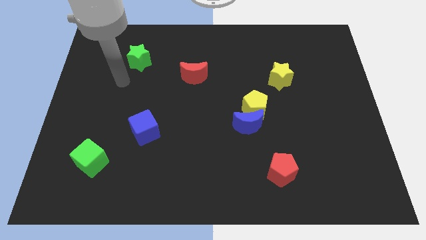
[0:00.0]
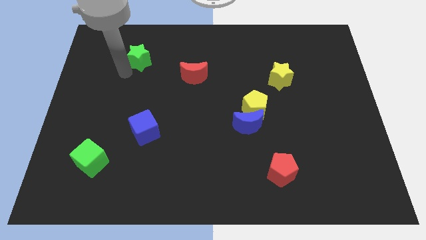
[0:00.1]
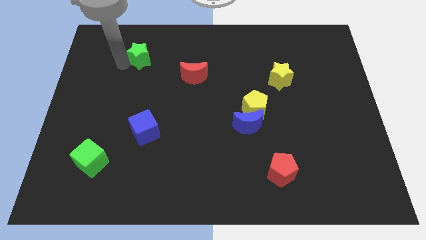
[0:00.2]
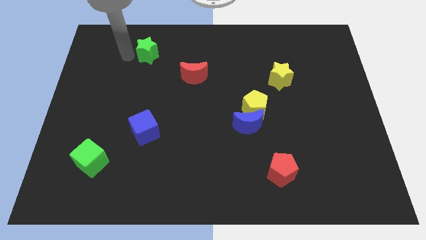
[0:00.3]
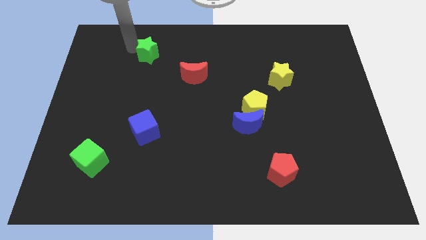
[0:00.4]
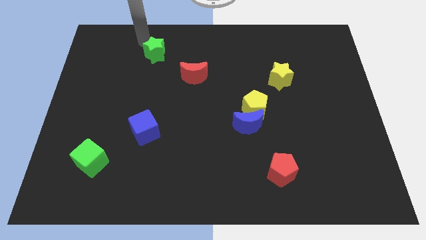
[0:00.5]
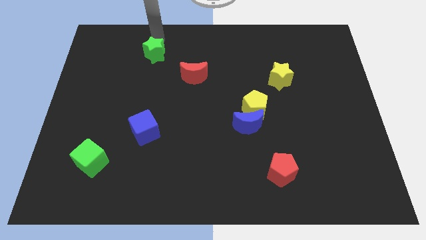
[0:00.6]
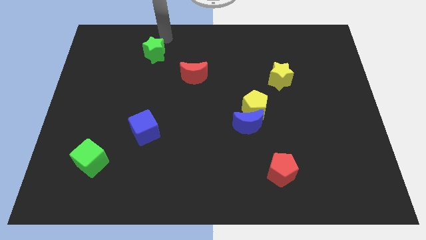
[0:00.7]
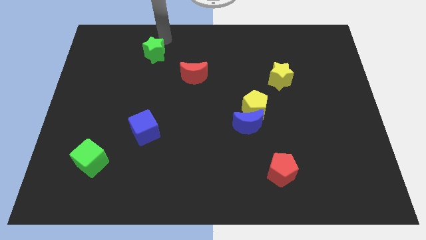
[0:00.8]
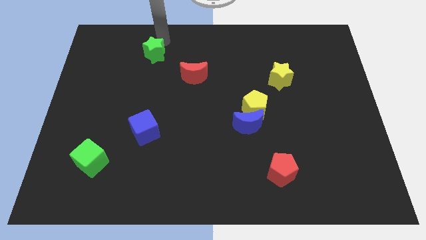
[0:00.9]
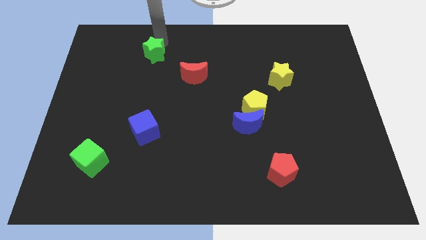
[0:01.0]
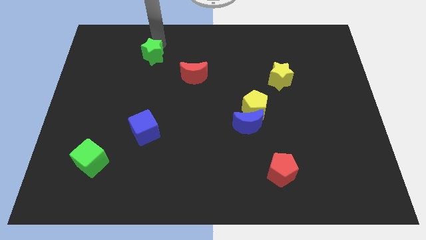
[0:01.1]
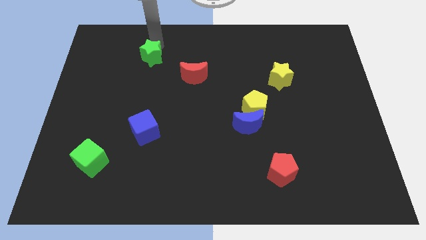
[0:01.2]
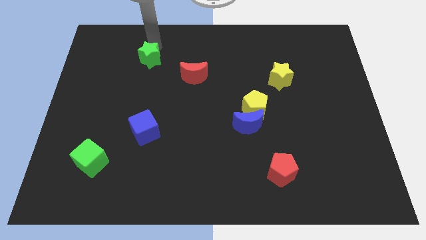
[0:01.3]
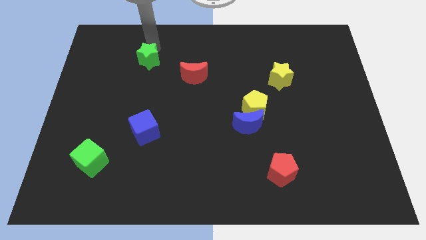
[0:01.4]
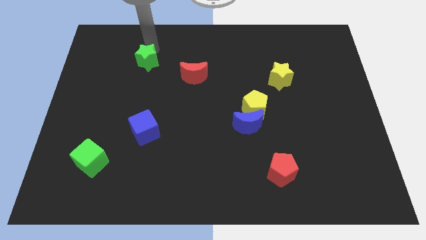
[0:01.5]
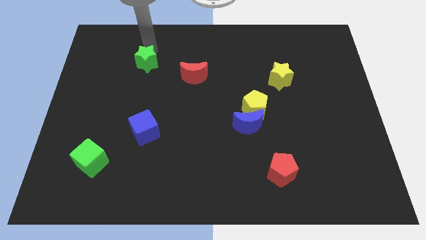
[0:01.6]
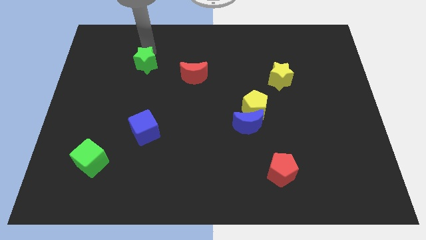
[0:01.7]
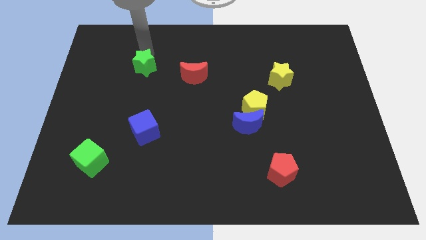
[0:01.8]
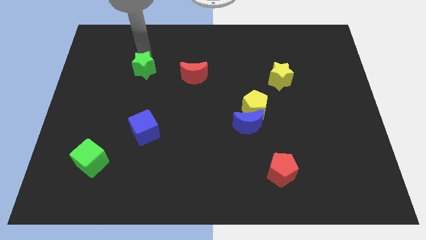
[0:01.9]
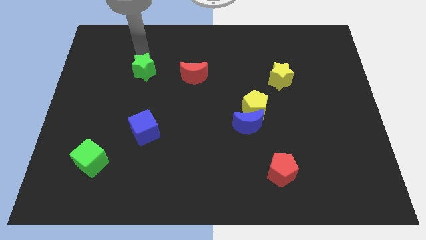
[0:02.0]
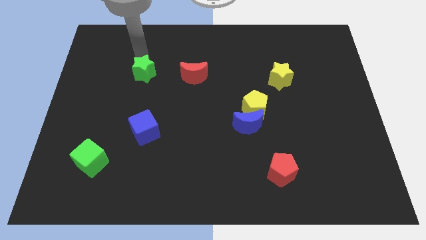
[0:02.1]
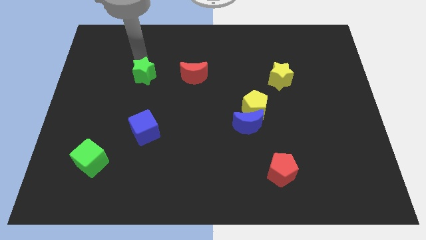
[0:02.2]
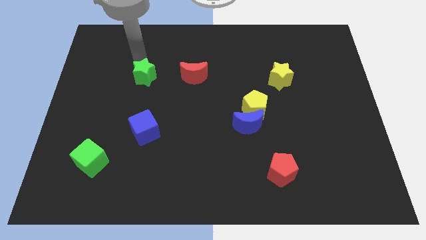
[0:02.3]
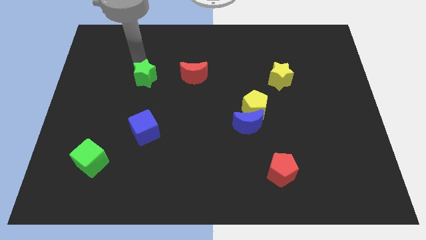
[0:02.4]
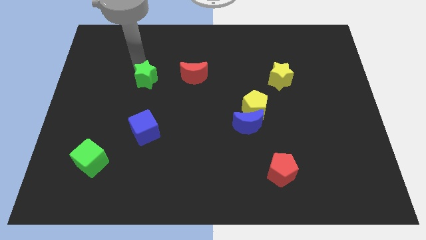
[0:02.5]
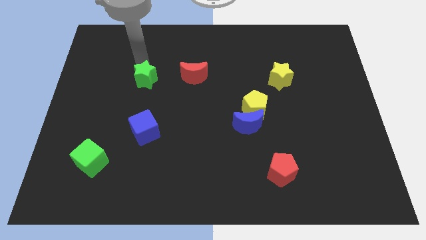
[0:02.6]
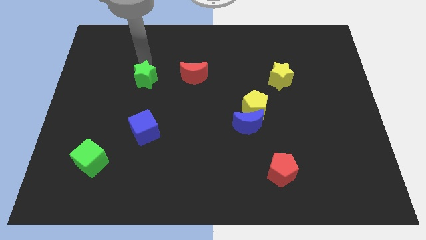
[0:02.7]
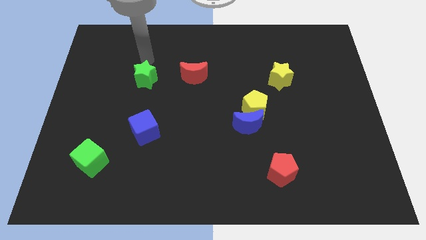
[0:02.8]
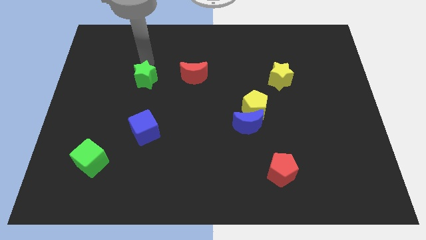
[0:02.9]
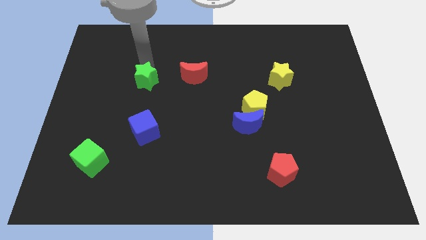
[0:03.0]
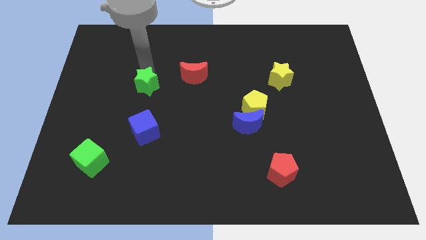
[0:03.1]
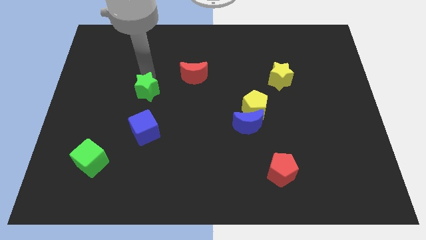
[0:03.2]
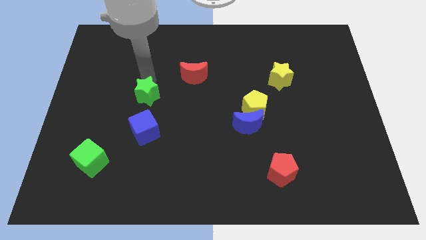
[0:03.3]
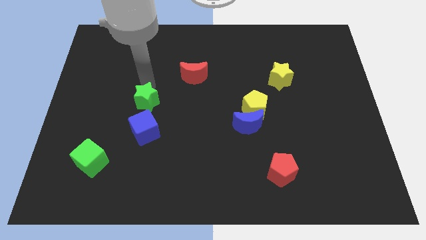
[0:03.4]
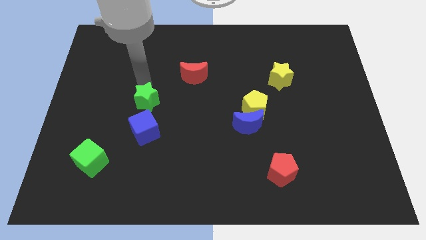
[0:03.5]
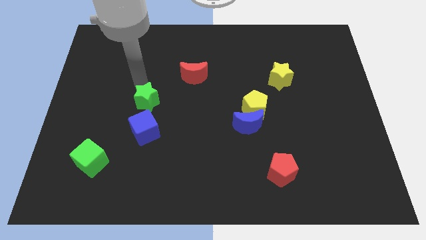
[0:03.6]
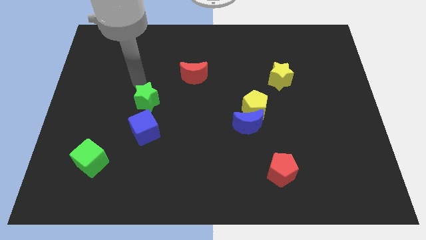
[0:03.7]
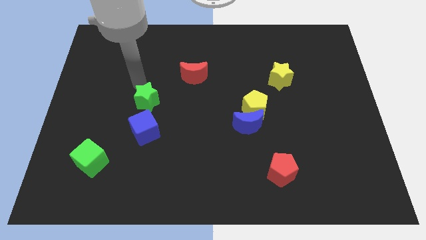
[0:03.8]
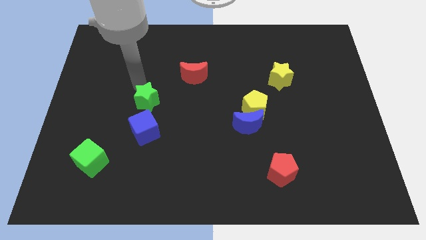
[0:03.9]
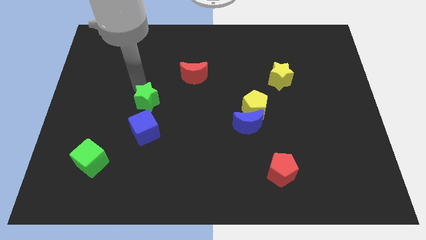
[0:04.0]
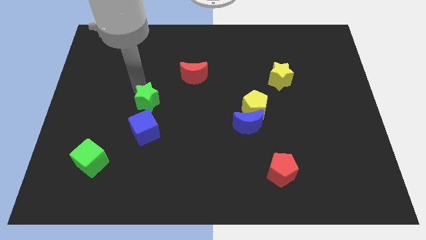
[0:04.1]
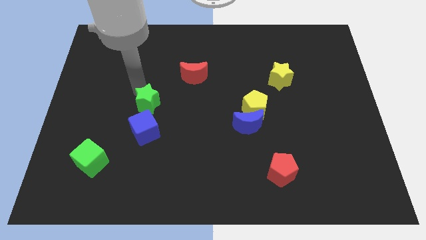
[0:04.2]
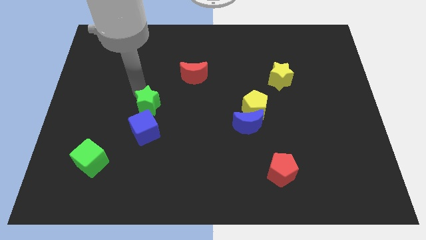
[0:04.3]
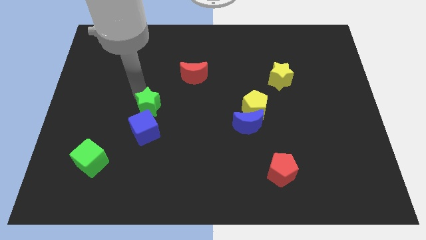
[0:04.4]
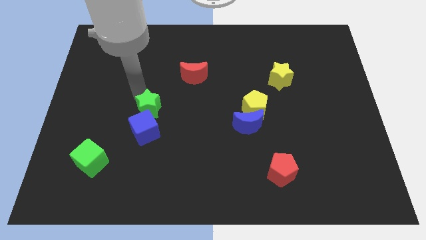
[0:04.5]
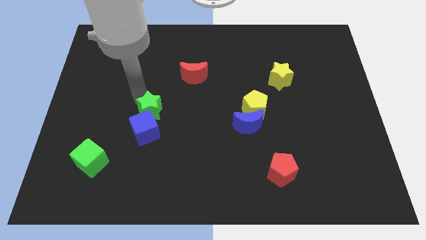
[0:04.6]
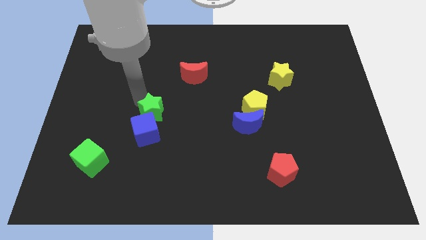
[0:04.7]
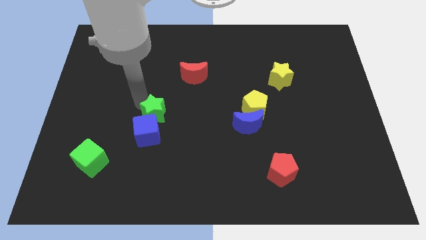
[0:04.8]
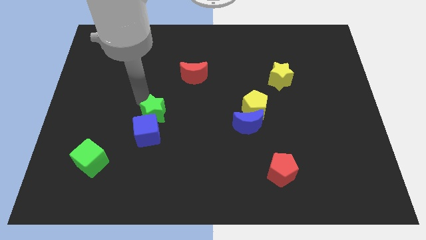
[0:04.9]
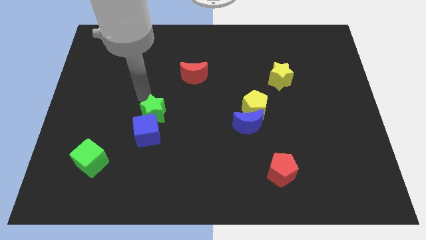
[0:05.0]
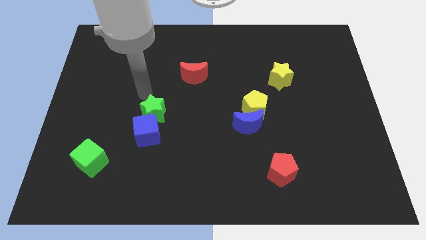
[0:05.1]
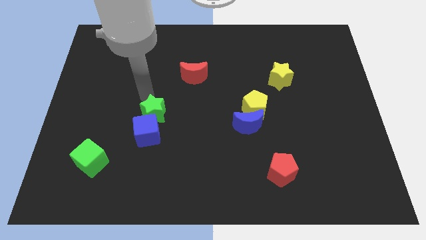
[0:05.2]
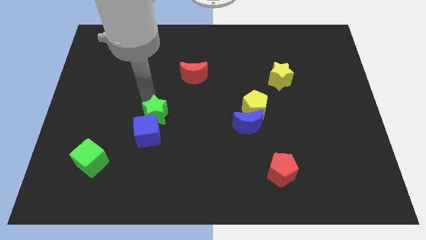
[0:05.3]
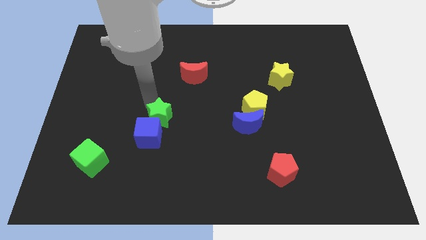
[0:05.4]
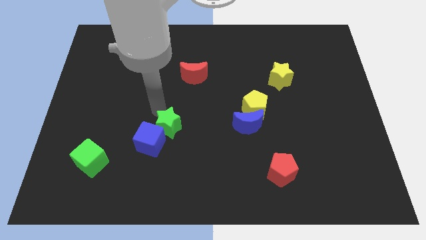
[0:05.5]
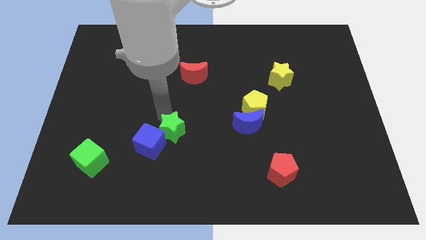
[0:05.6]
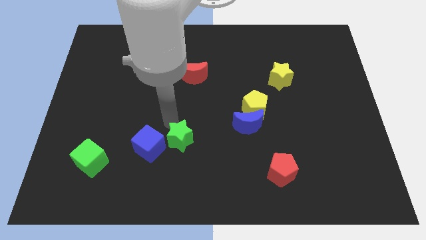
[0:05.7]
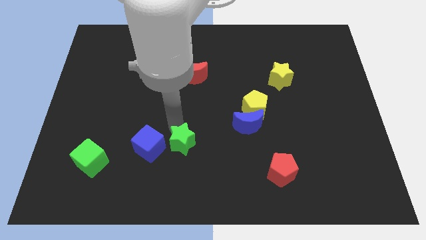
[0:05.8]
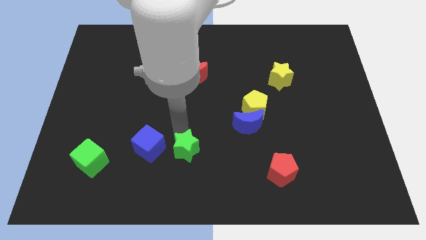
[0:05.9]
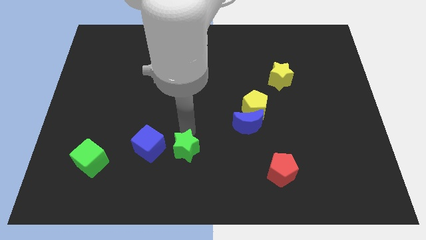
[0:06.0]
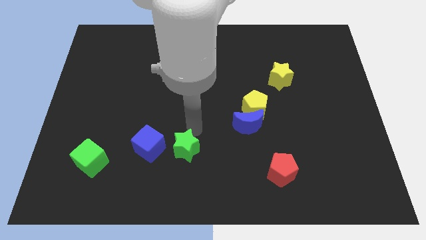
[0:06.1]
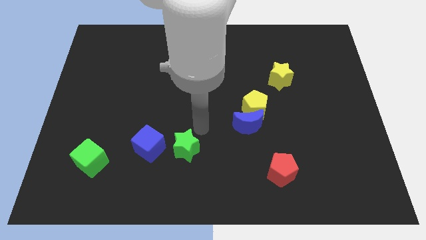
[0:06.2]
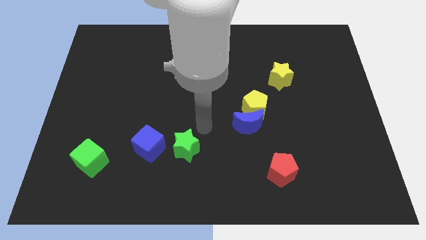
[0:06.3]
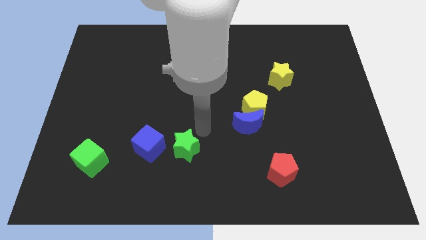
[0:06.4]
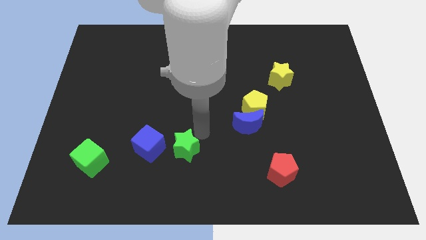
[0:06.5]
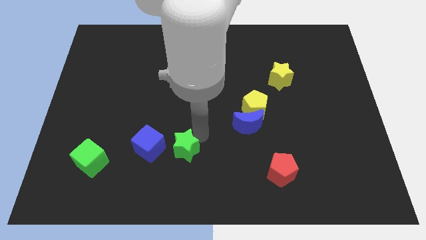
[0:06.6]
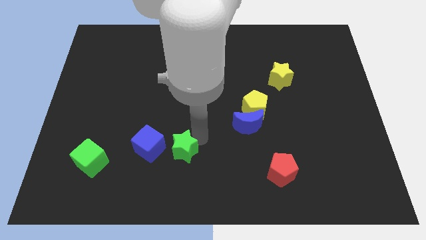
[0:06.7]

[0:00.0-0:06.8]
put the green star diagonally down and to the right of the blue cube

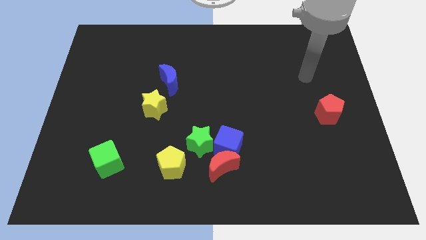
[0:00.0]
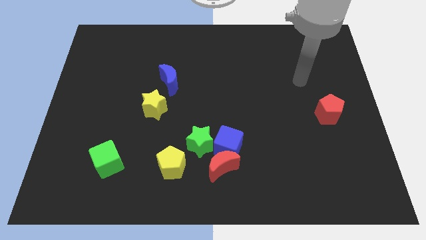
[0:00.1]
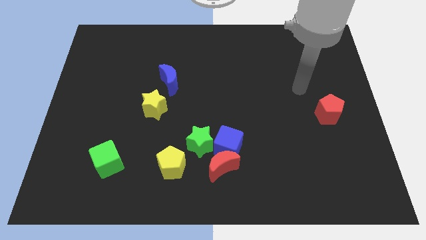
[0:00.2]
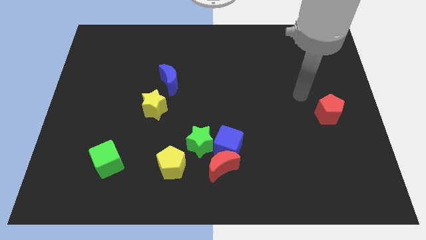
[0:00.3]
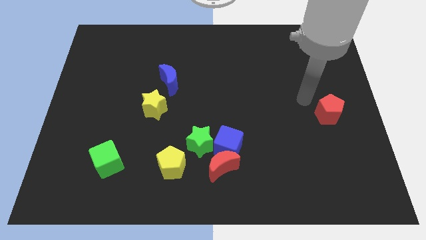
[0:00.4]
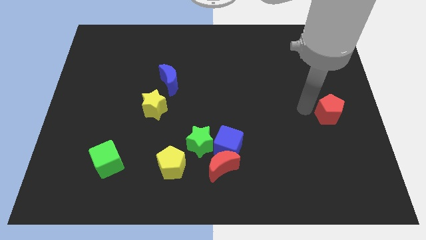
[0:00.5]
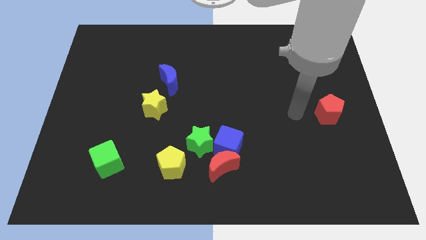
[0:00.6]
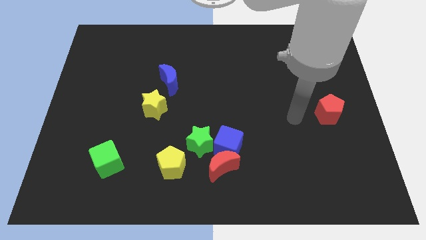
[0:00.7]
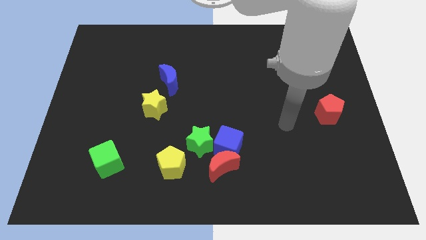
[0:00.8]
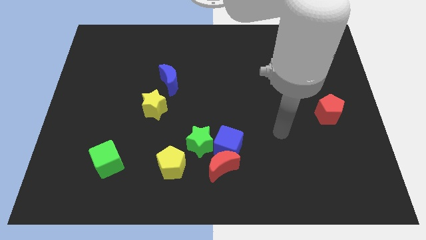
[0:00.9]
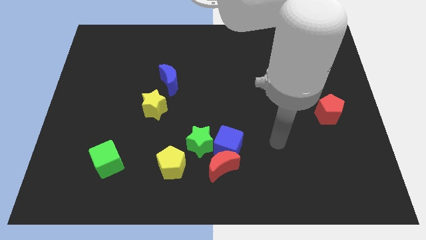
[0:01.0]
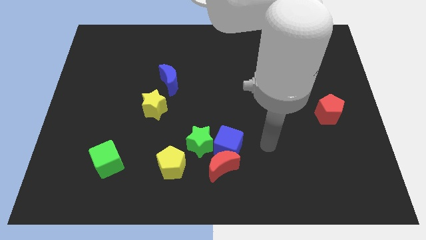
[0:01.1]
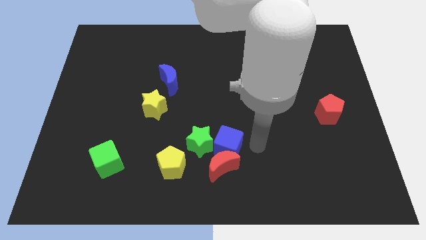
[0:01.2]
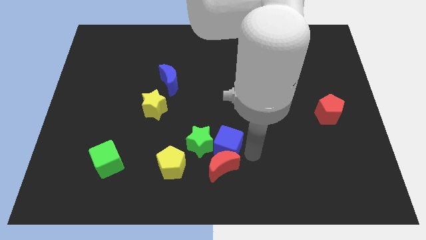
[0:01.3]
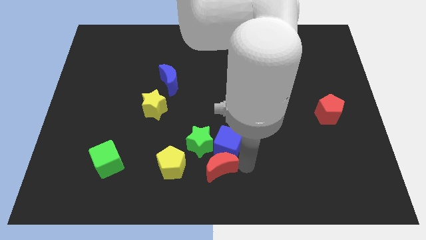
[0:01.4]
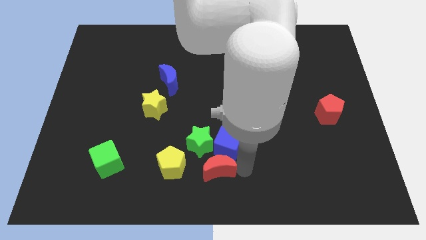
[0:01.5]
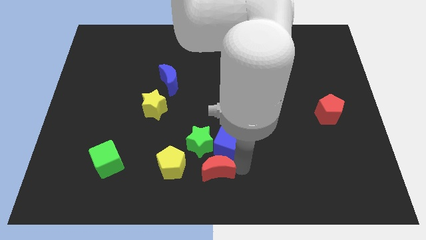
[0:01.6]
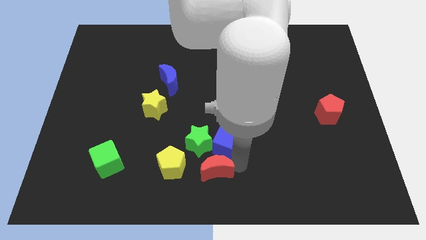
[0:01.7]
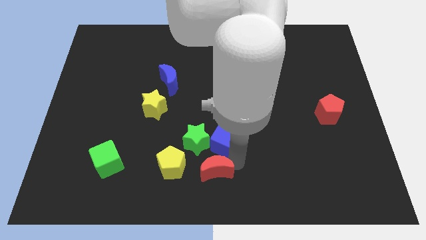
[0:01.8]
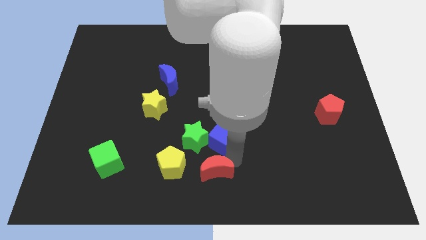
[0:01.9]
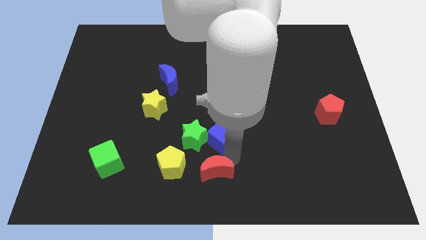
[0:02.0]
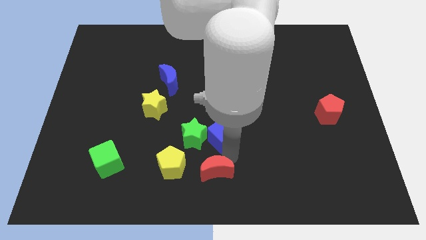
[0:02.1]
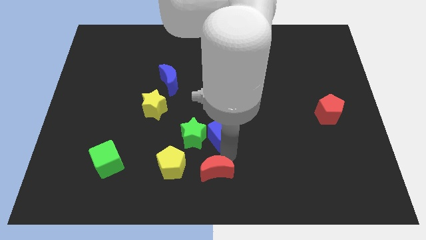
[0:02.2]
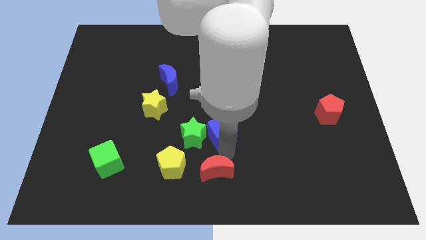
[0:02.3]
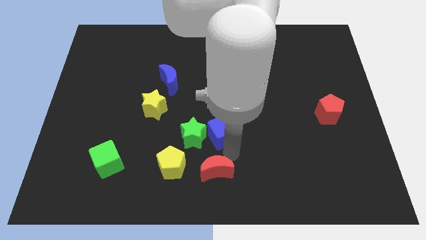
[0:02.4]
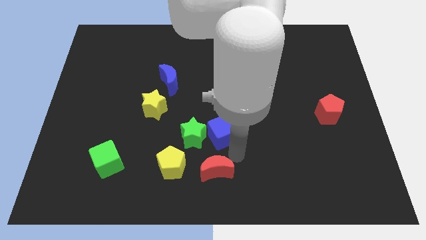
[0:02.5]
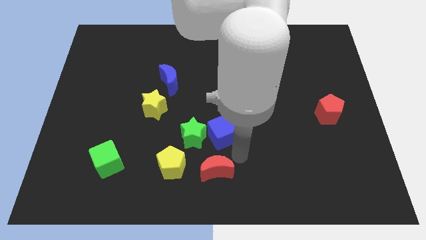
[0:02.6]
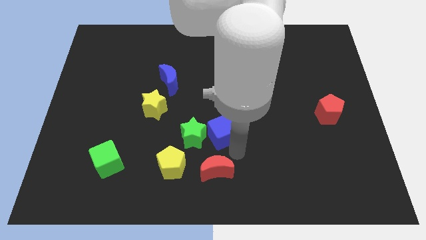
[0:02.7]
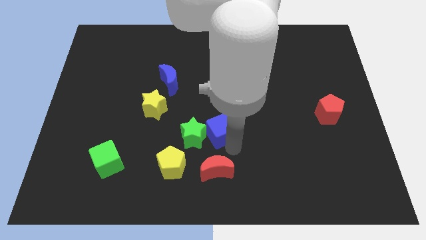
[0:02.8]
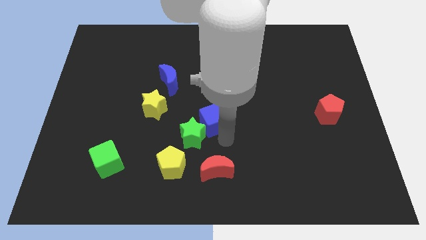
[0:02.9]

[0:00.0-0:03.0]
move the blue cube to the top side of the green star
